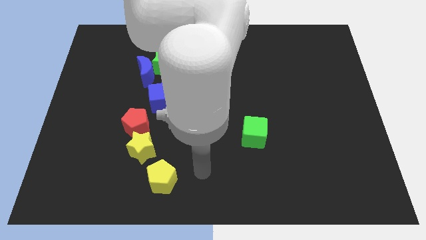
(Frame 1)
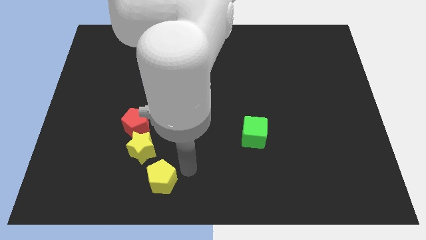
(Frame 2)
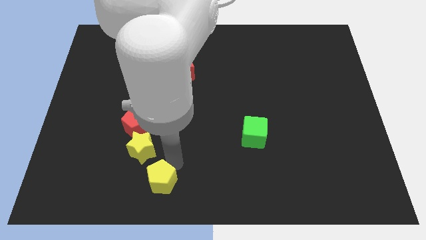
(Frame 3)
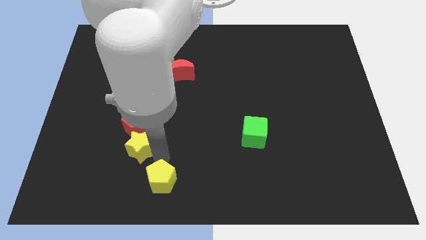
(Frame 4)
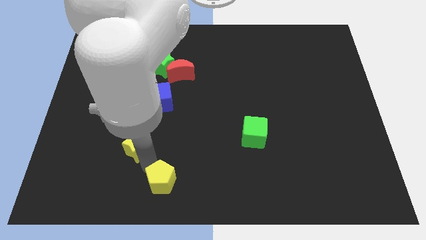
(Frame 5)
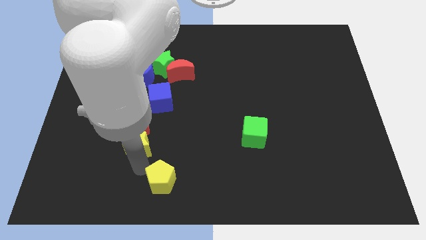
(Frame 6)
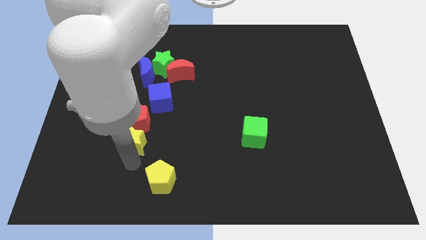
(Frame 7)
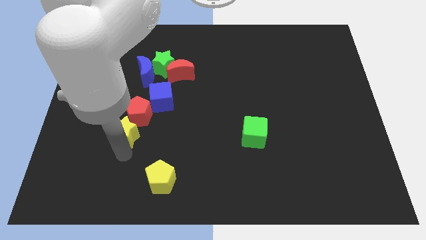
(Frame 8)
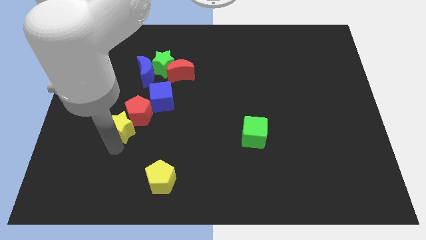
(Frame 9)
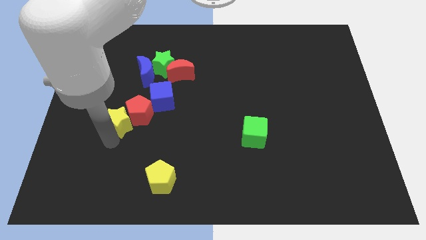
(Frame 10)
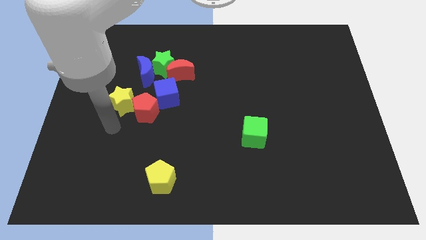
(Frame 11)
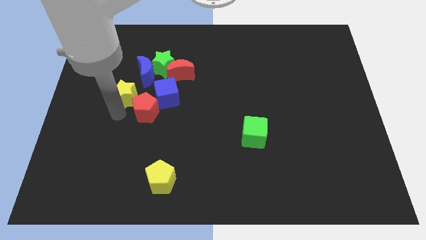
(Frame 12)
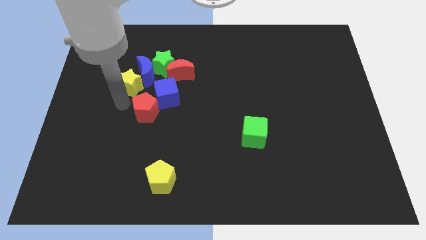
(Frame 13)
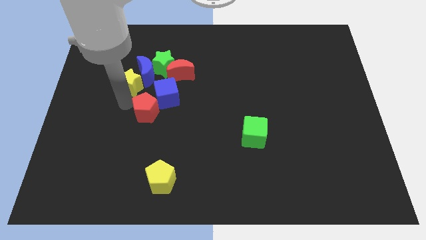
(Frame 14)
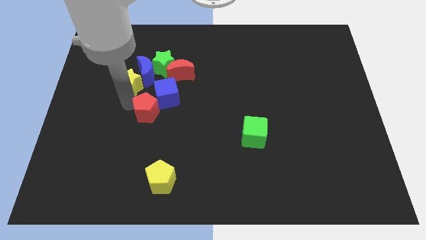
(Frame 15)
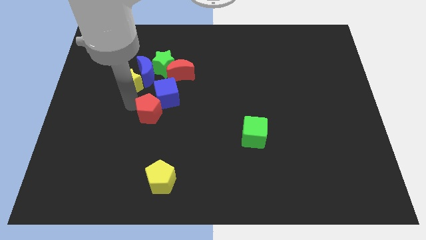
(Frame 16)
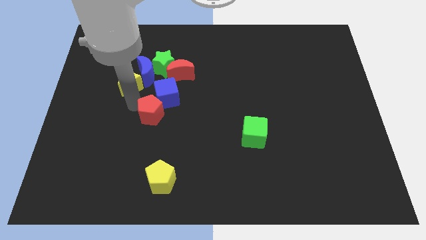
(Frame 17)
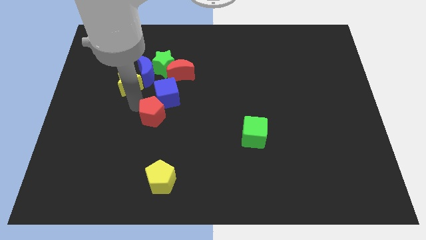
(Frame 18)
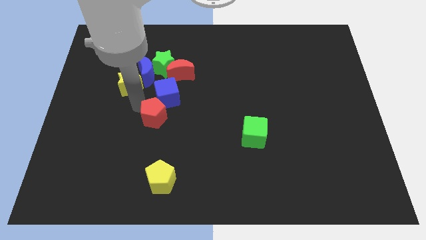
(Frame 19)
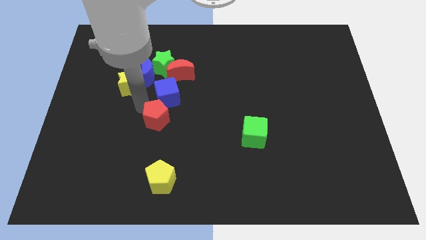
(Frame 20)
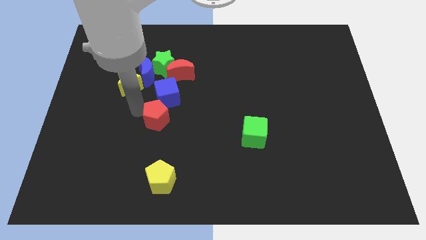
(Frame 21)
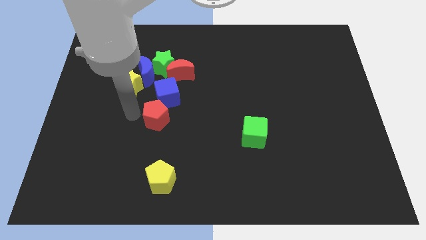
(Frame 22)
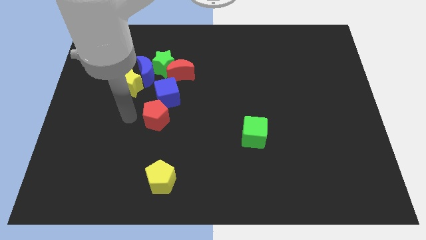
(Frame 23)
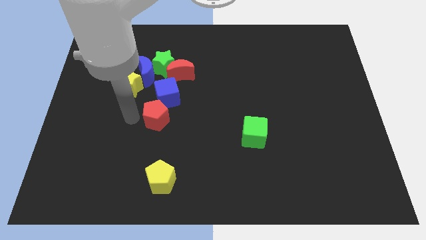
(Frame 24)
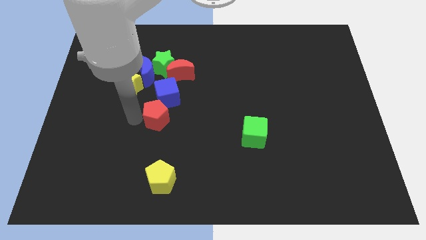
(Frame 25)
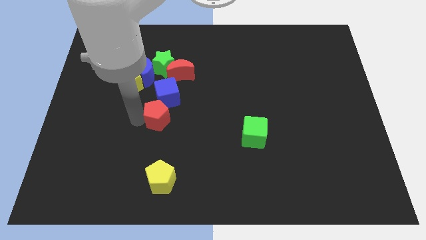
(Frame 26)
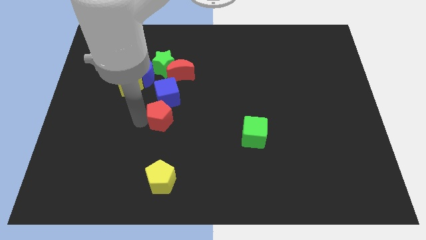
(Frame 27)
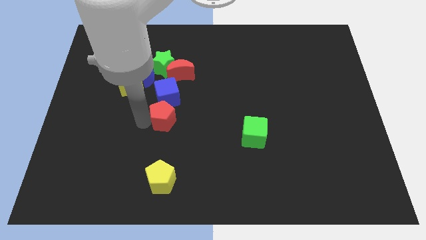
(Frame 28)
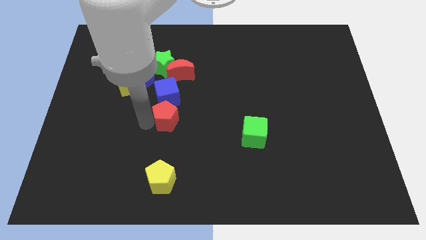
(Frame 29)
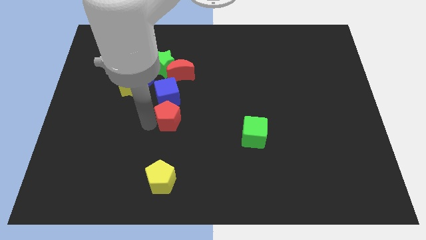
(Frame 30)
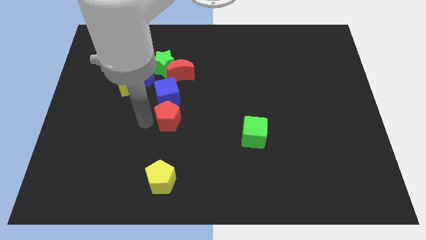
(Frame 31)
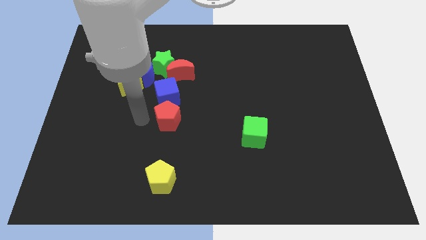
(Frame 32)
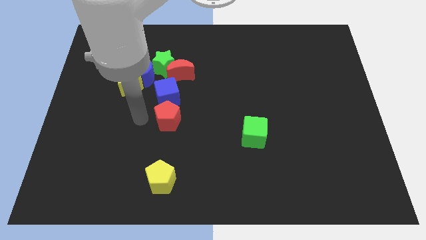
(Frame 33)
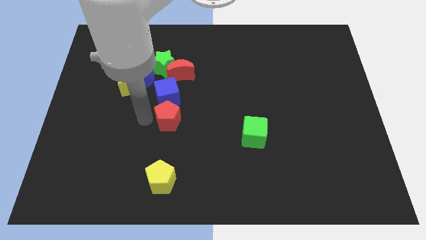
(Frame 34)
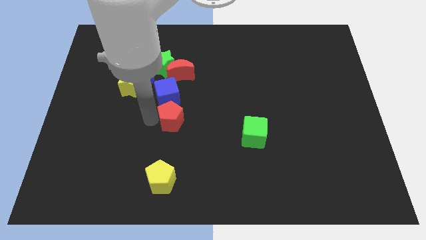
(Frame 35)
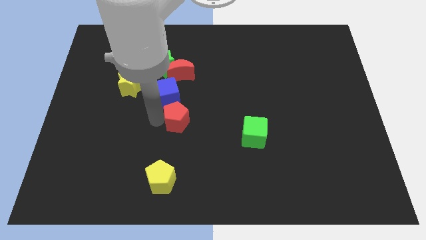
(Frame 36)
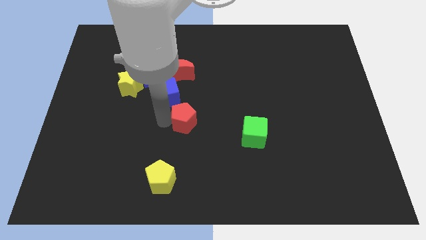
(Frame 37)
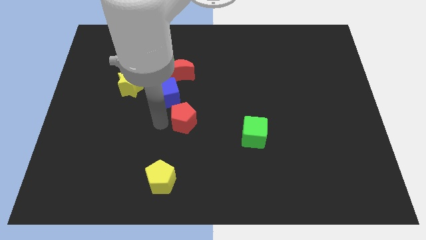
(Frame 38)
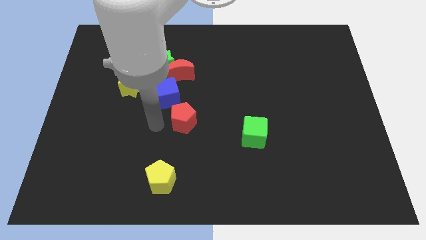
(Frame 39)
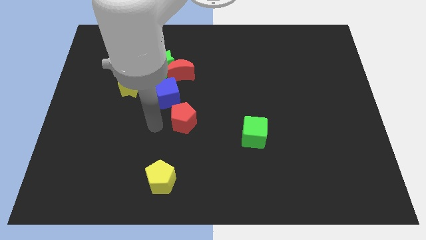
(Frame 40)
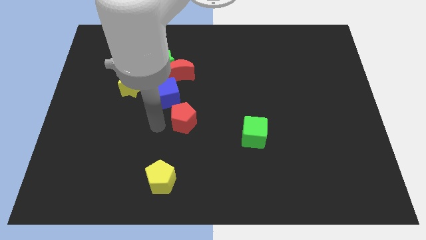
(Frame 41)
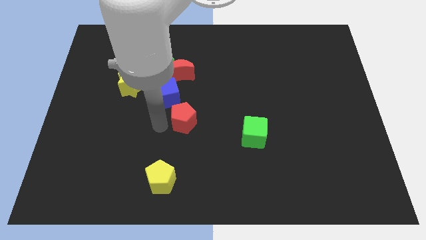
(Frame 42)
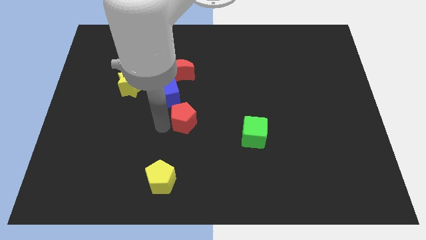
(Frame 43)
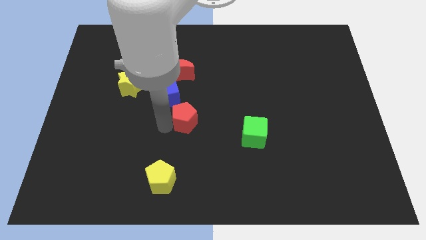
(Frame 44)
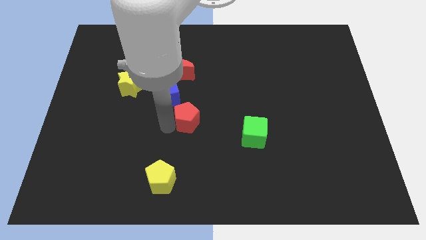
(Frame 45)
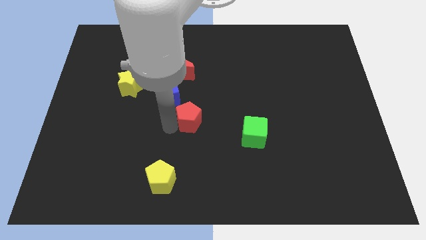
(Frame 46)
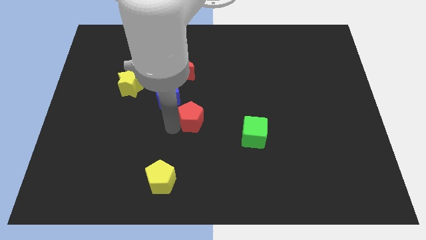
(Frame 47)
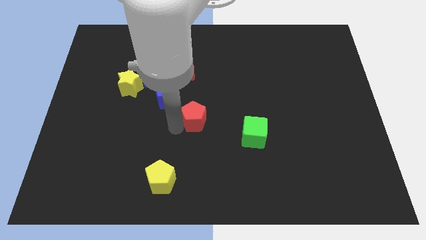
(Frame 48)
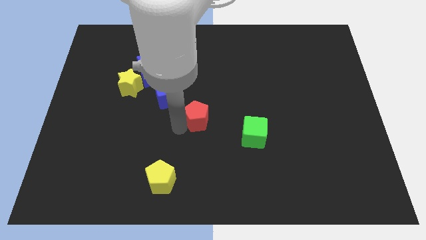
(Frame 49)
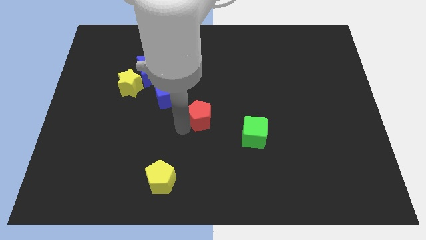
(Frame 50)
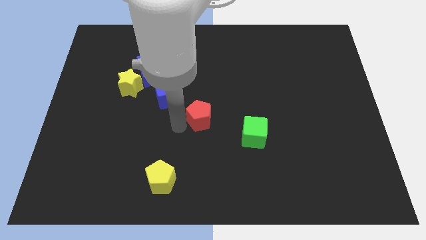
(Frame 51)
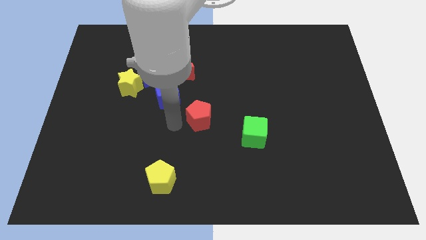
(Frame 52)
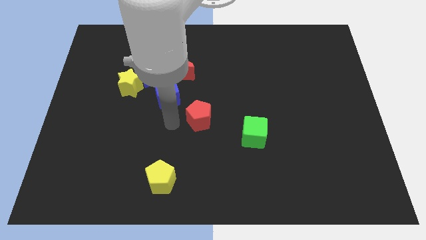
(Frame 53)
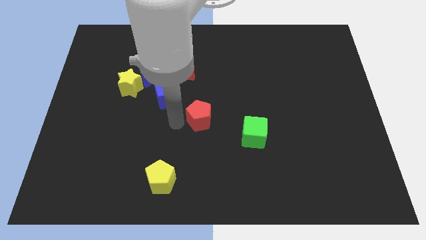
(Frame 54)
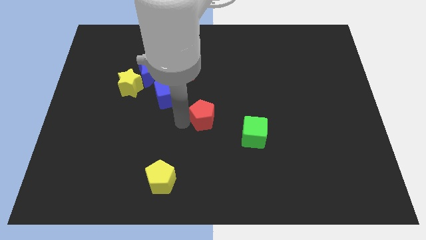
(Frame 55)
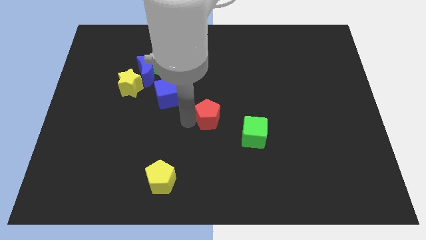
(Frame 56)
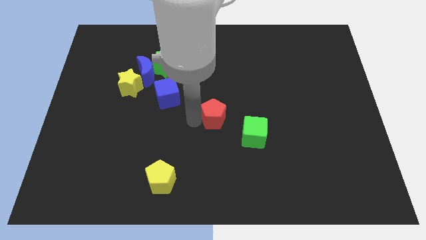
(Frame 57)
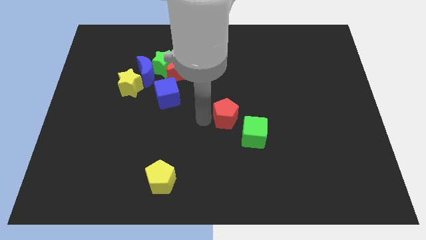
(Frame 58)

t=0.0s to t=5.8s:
move the red pentagon to the right

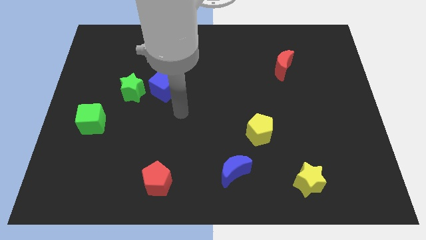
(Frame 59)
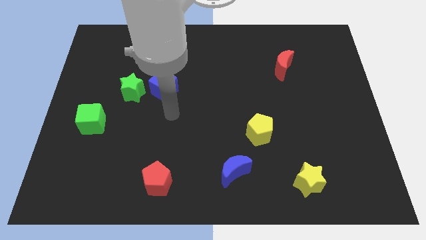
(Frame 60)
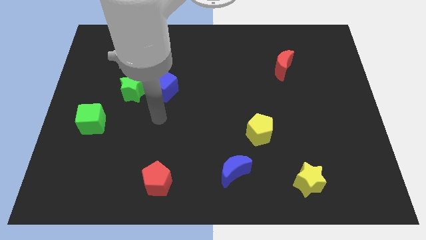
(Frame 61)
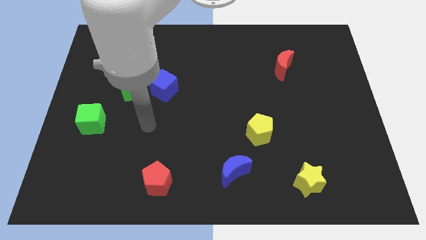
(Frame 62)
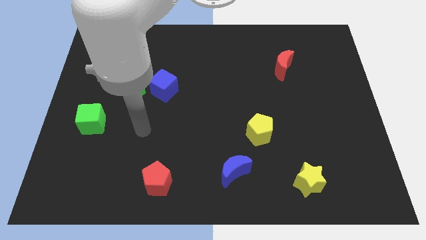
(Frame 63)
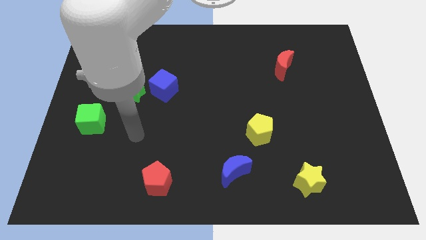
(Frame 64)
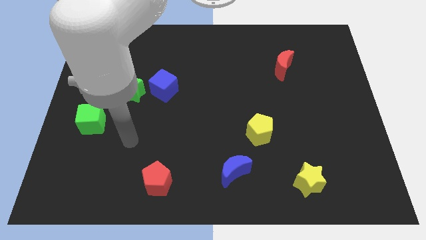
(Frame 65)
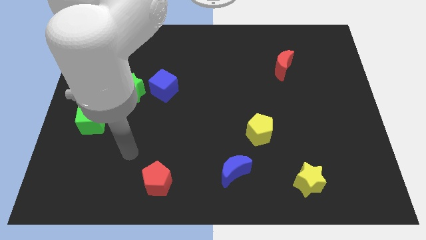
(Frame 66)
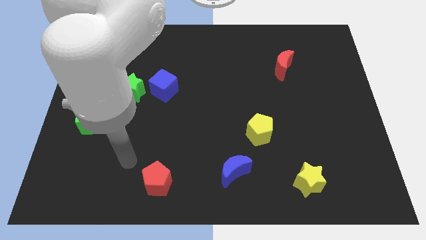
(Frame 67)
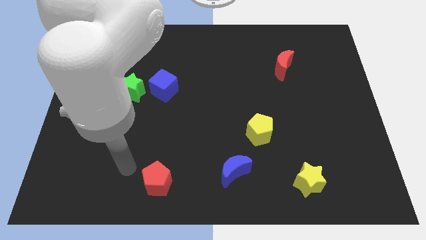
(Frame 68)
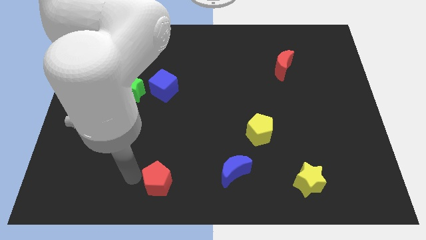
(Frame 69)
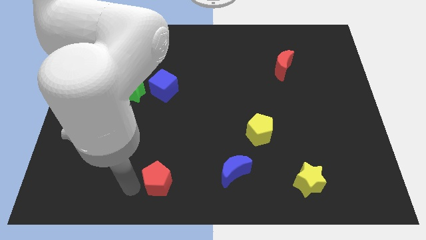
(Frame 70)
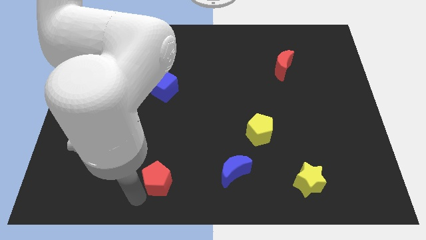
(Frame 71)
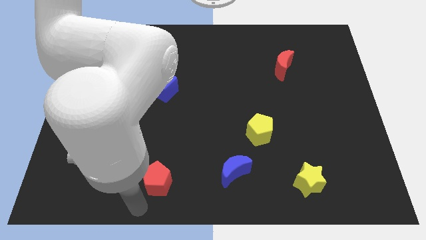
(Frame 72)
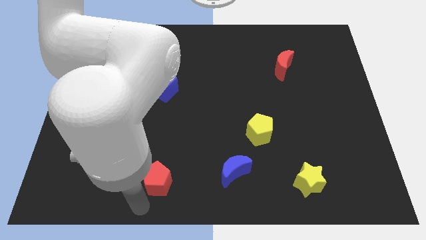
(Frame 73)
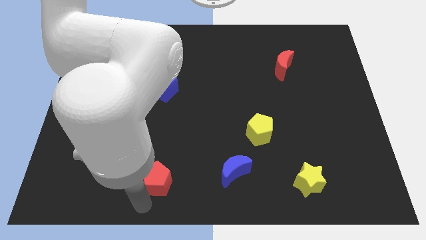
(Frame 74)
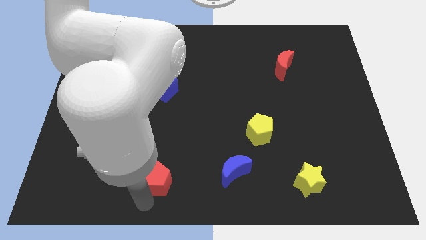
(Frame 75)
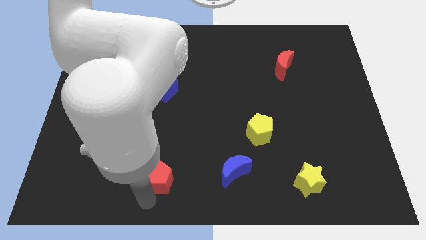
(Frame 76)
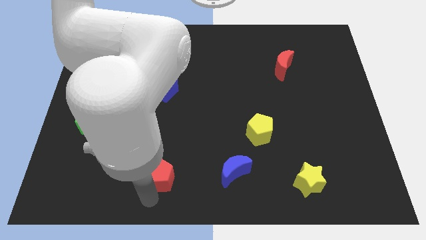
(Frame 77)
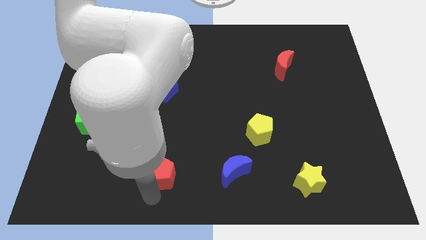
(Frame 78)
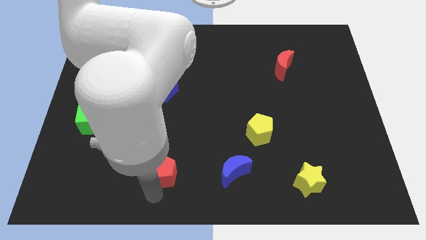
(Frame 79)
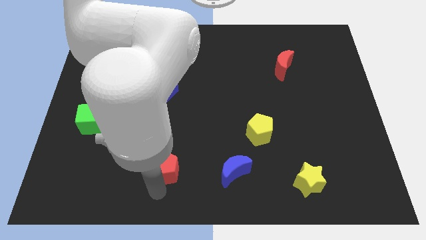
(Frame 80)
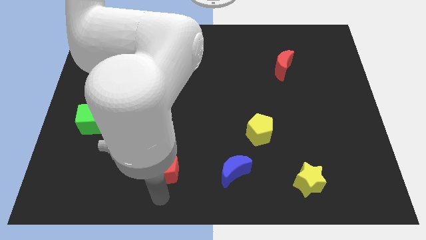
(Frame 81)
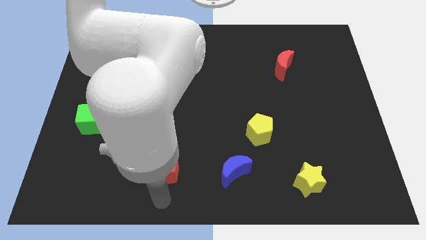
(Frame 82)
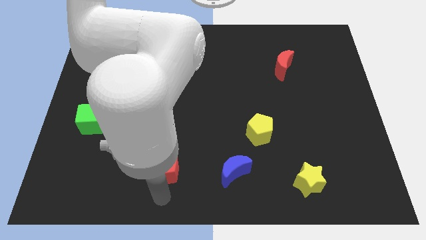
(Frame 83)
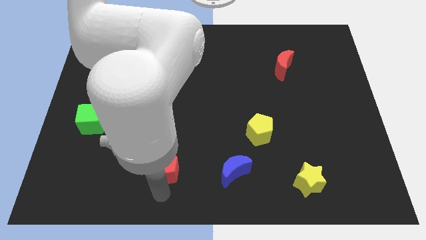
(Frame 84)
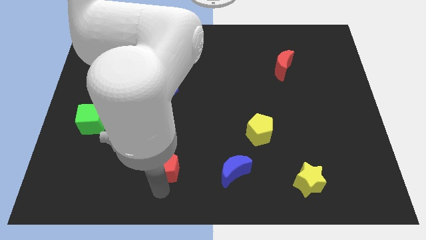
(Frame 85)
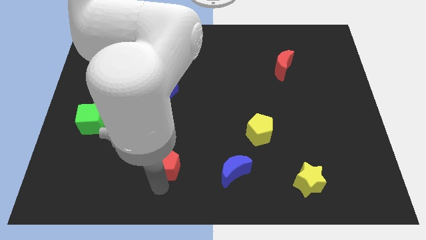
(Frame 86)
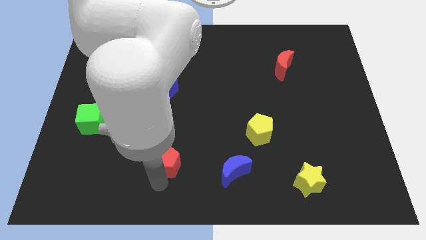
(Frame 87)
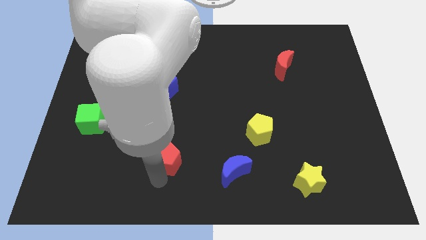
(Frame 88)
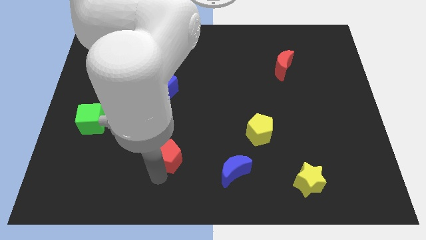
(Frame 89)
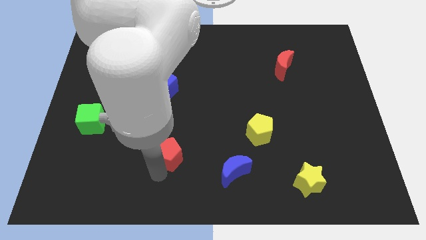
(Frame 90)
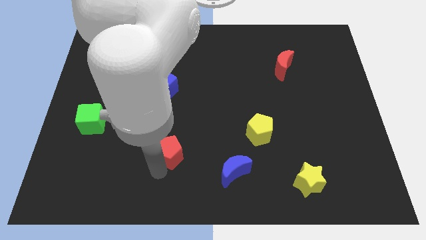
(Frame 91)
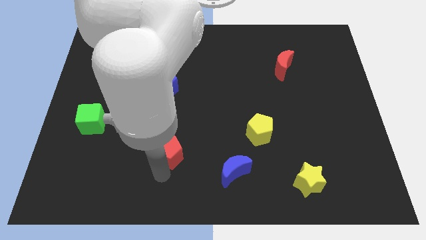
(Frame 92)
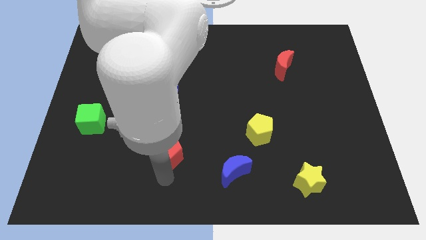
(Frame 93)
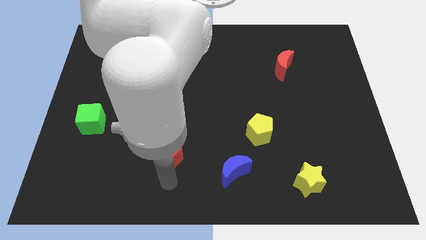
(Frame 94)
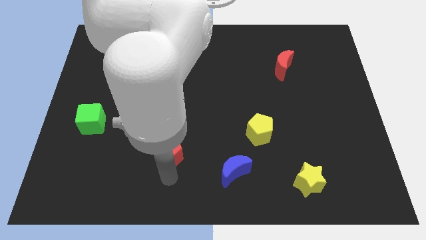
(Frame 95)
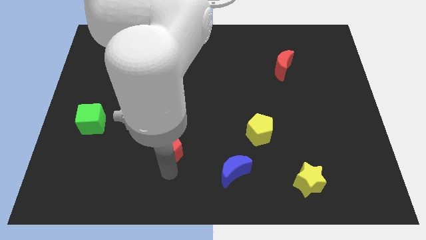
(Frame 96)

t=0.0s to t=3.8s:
slide the red pentagon slightly upwards
